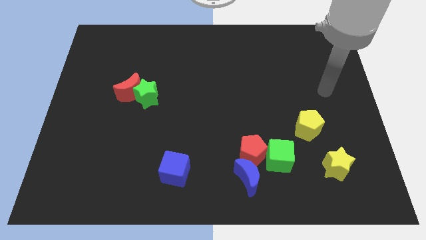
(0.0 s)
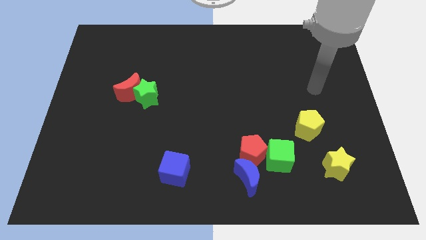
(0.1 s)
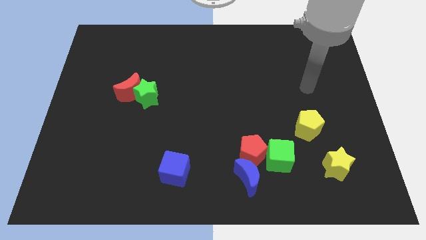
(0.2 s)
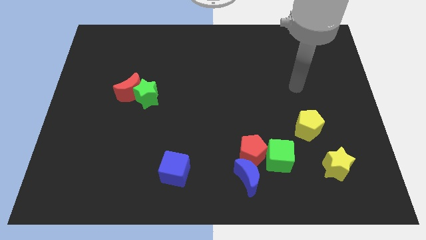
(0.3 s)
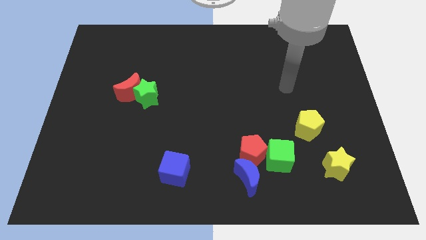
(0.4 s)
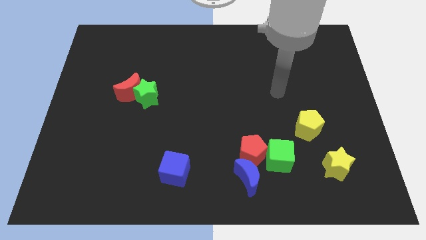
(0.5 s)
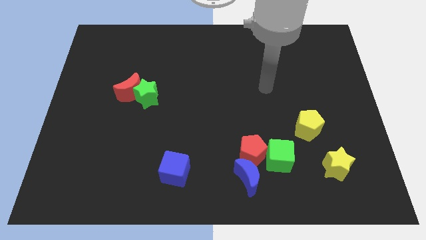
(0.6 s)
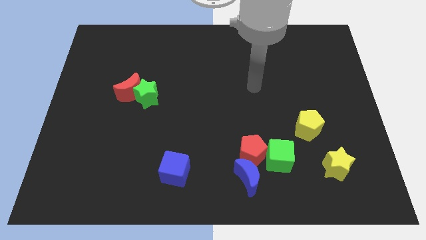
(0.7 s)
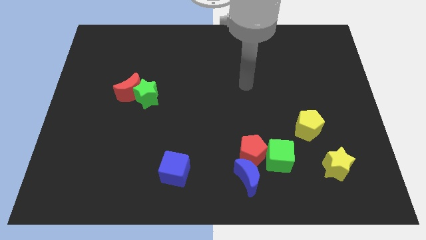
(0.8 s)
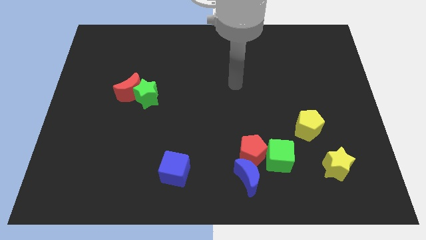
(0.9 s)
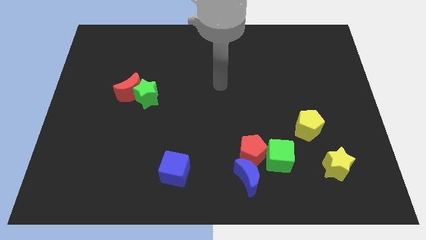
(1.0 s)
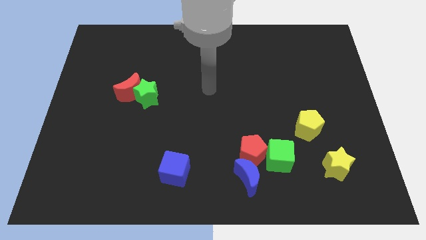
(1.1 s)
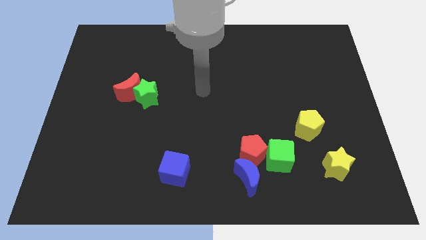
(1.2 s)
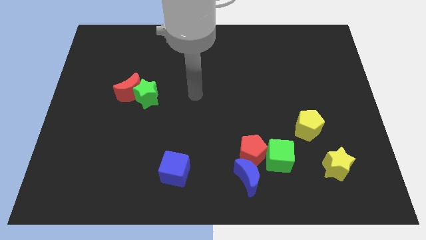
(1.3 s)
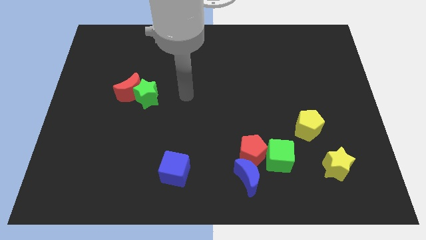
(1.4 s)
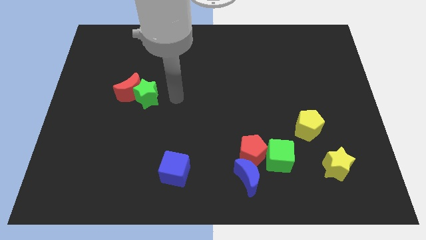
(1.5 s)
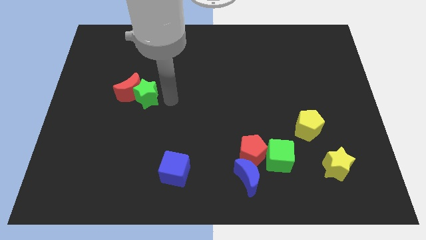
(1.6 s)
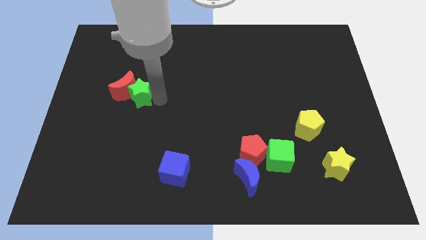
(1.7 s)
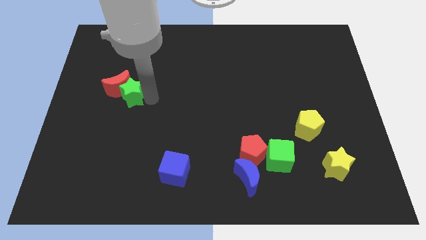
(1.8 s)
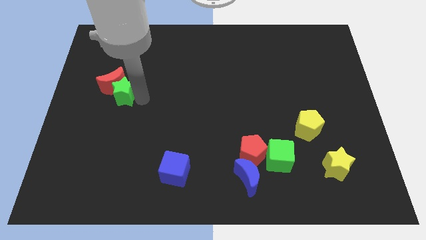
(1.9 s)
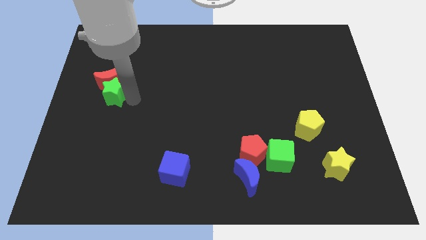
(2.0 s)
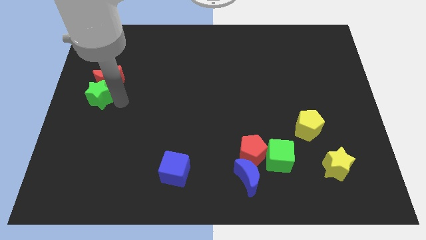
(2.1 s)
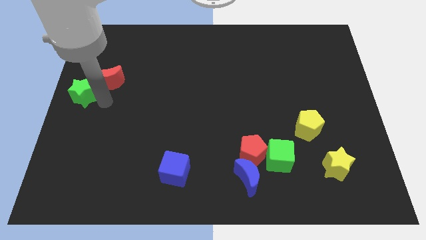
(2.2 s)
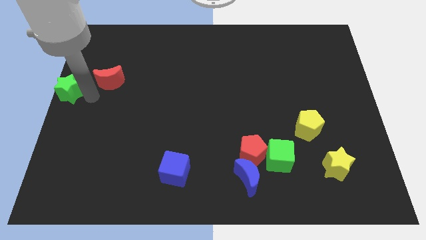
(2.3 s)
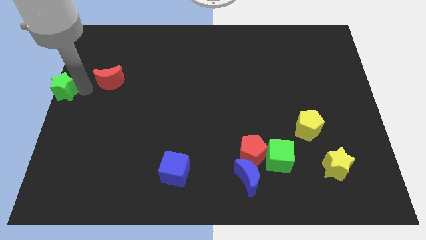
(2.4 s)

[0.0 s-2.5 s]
move the red moon away from the green star

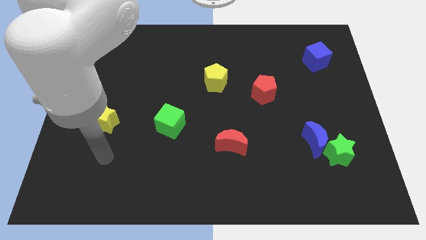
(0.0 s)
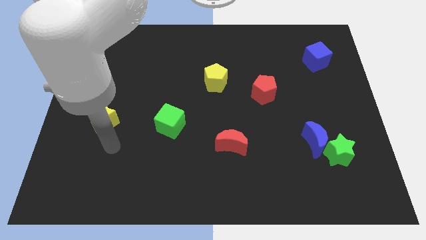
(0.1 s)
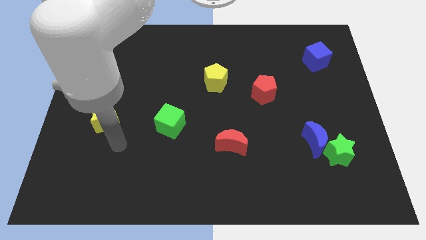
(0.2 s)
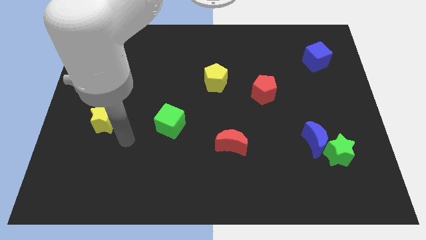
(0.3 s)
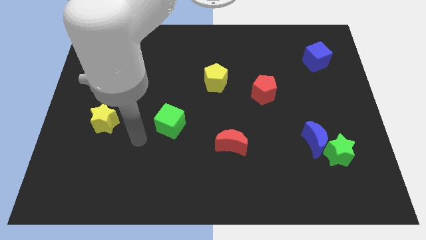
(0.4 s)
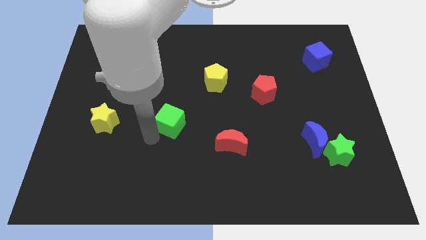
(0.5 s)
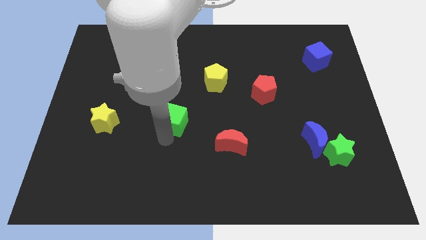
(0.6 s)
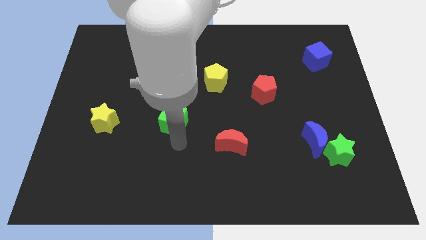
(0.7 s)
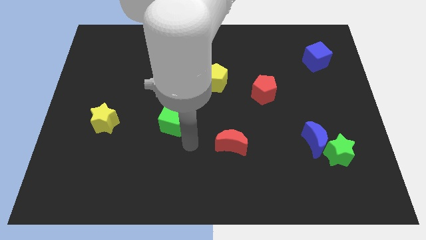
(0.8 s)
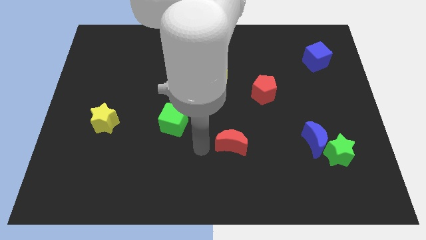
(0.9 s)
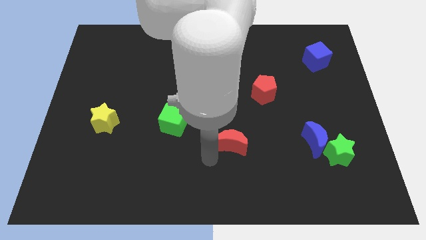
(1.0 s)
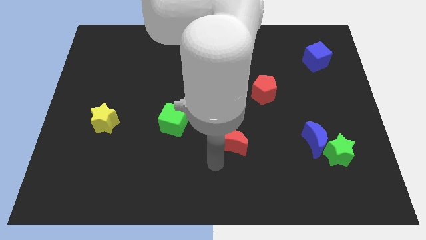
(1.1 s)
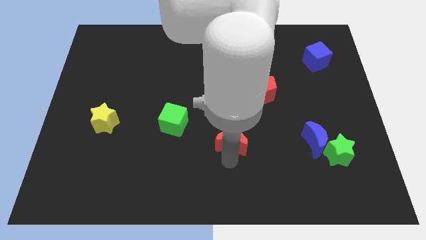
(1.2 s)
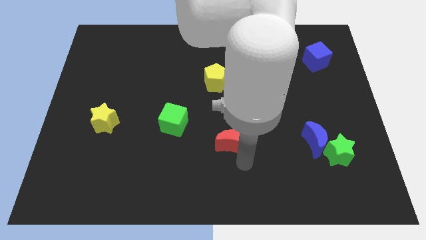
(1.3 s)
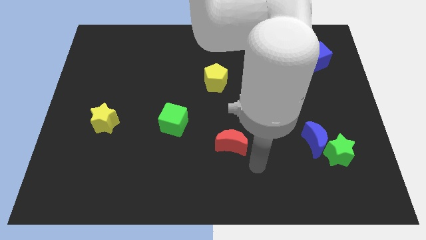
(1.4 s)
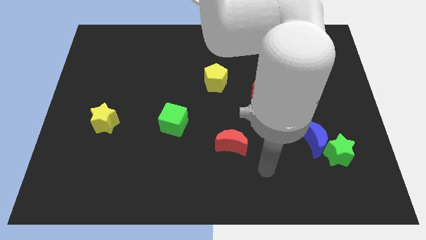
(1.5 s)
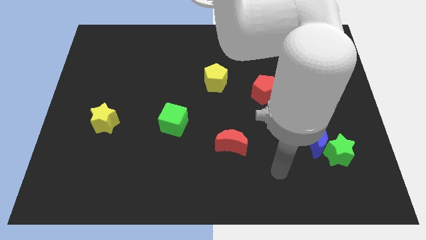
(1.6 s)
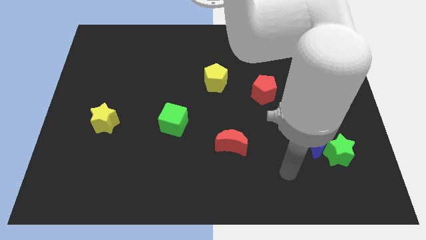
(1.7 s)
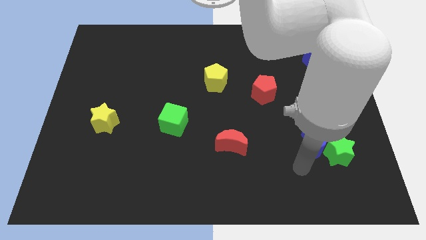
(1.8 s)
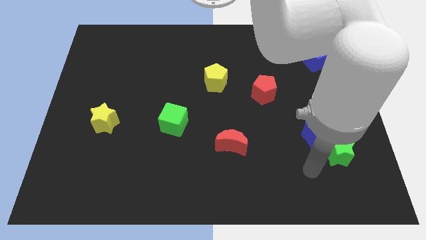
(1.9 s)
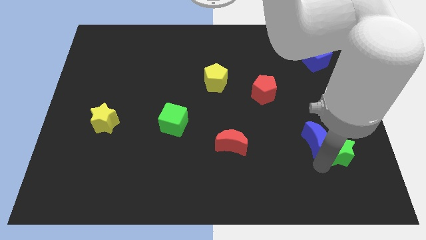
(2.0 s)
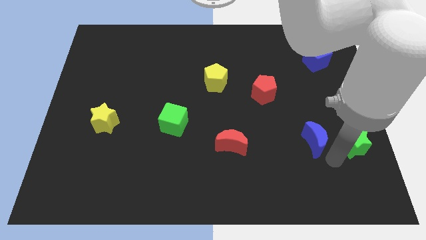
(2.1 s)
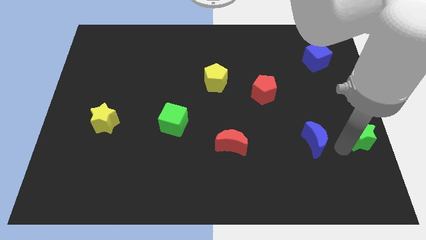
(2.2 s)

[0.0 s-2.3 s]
move the blue moon away from the green star

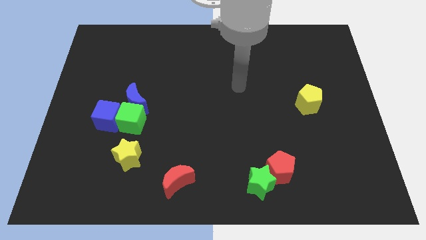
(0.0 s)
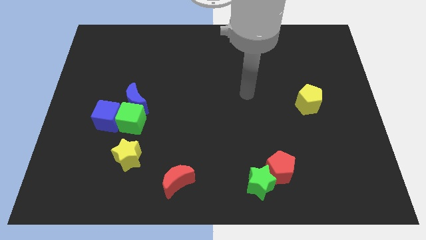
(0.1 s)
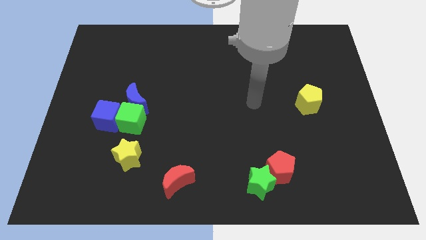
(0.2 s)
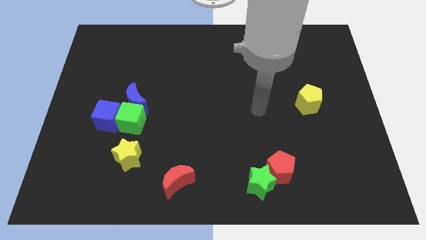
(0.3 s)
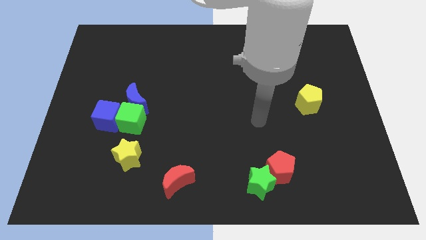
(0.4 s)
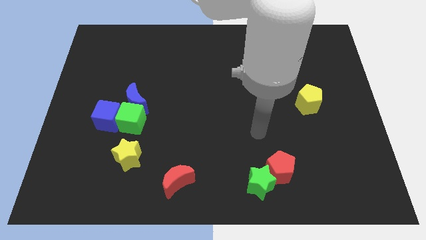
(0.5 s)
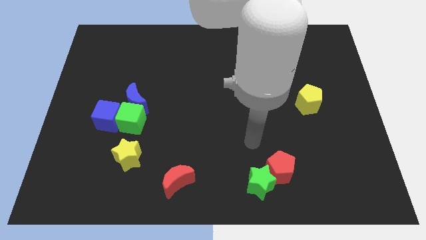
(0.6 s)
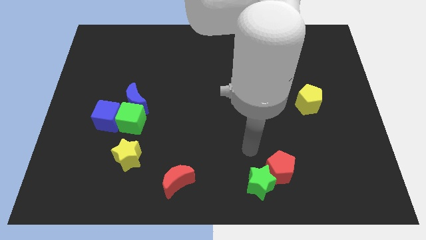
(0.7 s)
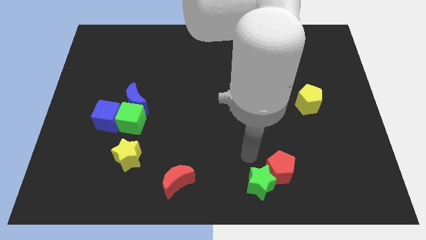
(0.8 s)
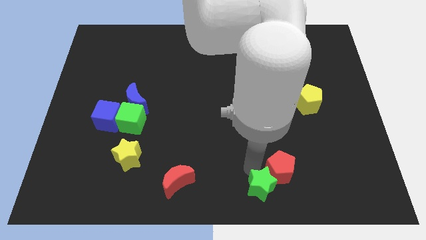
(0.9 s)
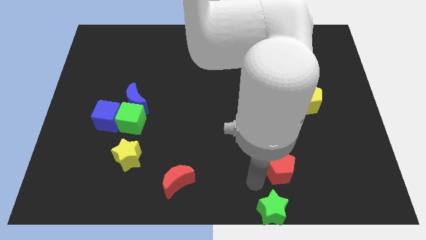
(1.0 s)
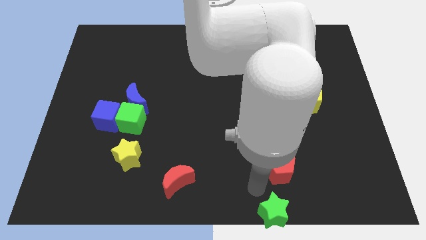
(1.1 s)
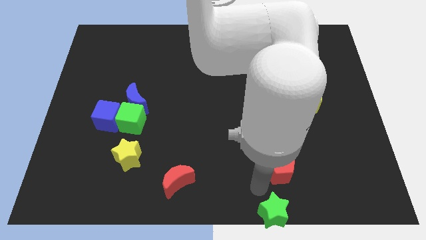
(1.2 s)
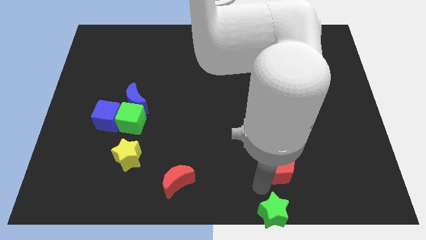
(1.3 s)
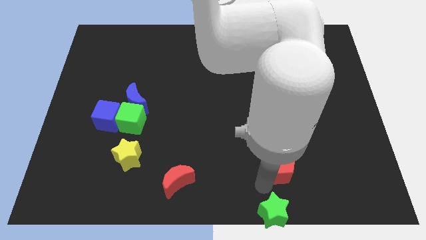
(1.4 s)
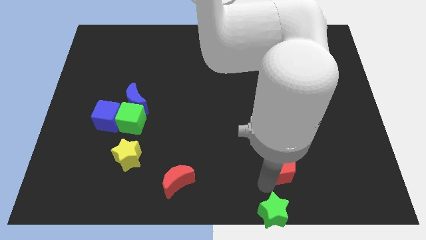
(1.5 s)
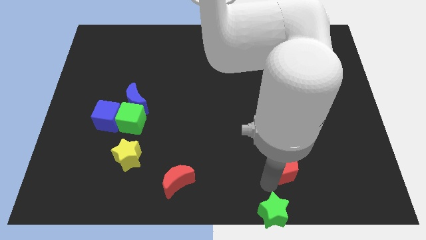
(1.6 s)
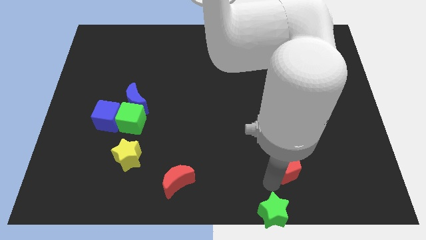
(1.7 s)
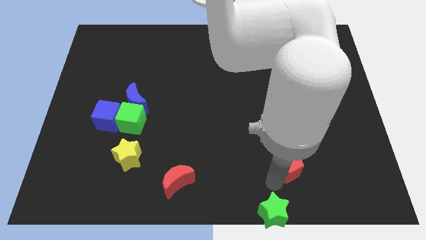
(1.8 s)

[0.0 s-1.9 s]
separate the red pentagon from the green star

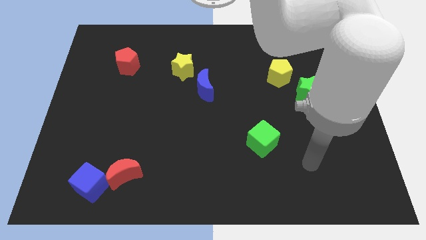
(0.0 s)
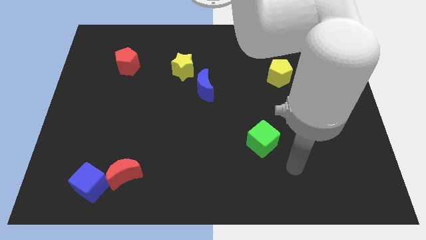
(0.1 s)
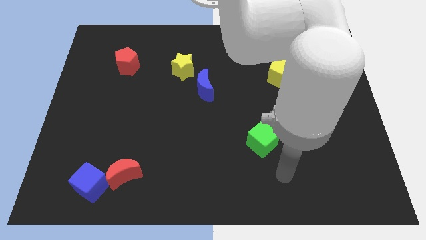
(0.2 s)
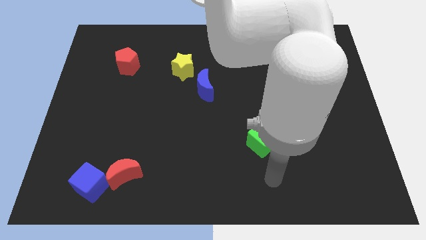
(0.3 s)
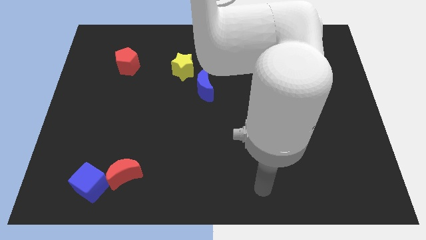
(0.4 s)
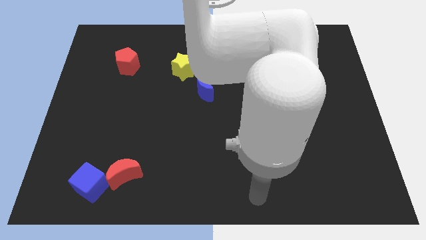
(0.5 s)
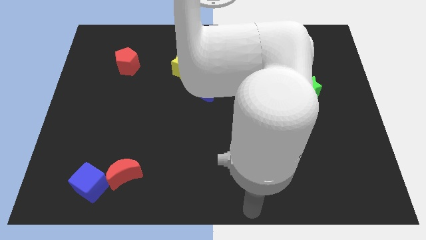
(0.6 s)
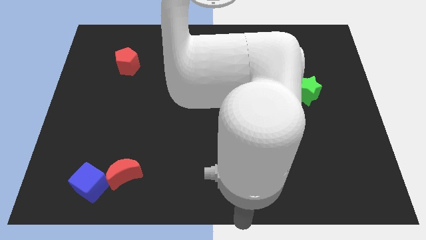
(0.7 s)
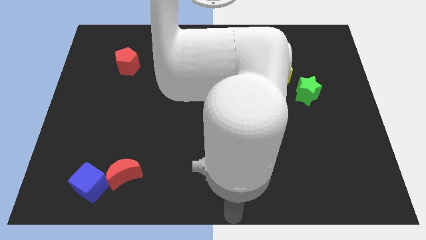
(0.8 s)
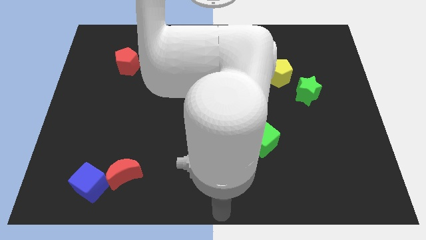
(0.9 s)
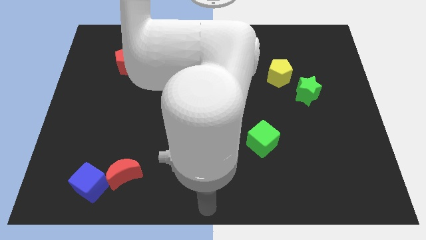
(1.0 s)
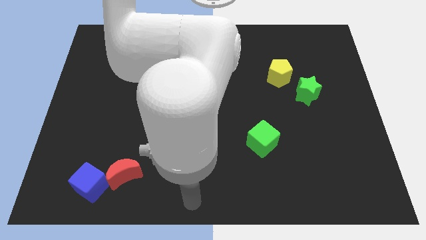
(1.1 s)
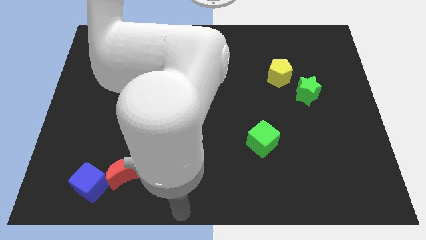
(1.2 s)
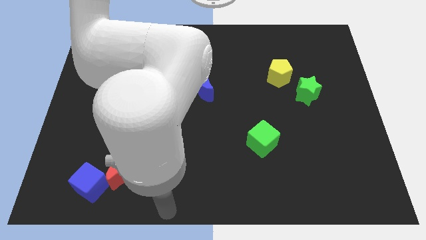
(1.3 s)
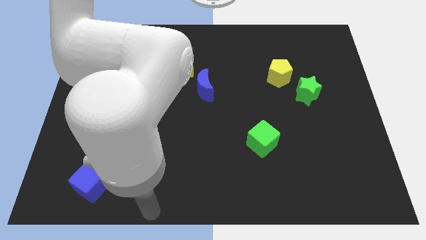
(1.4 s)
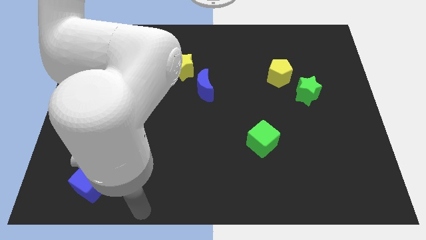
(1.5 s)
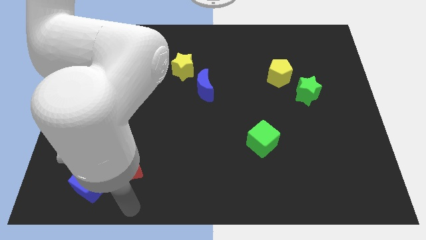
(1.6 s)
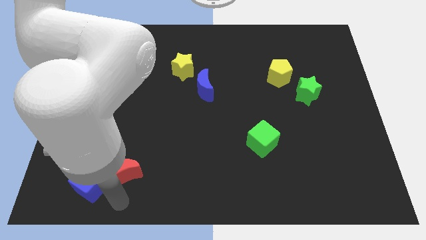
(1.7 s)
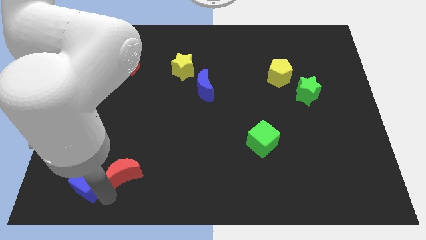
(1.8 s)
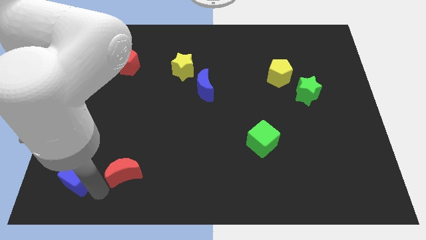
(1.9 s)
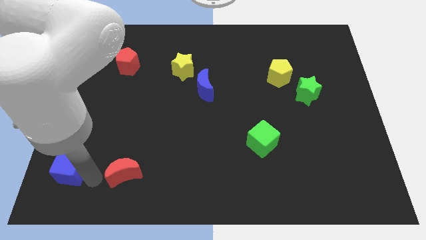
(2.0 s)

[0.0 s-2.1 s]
separate the red moon from the blue cube

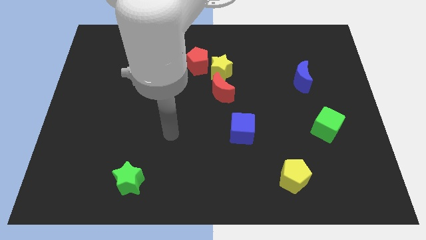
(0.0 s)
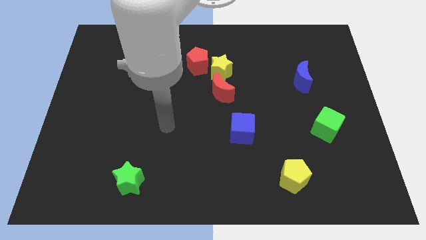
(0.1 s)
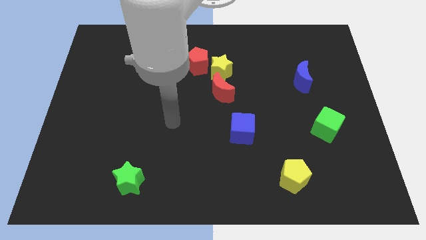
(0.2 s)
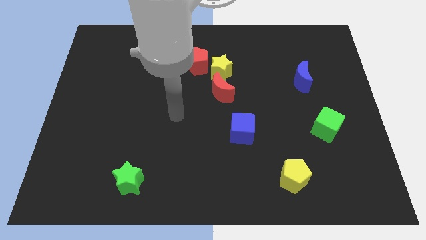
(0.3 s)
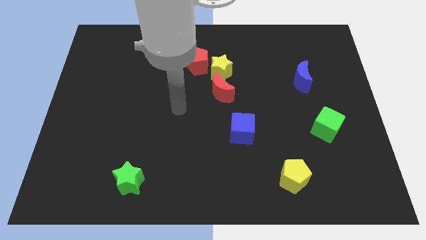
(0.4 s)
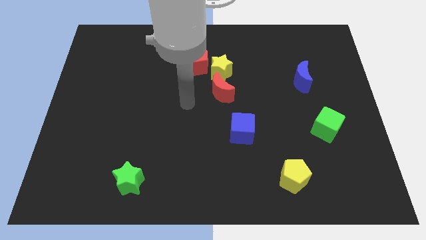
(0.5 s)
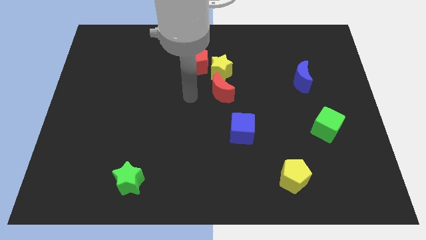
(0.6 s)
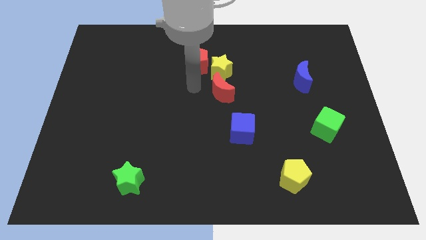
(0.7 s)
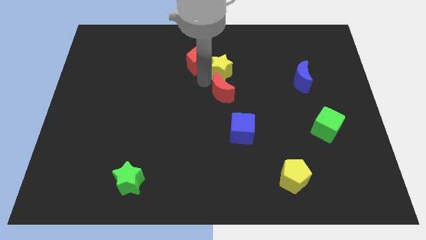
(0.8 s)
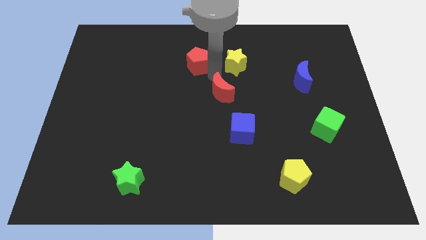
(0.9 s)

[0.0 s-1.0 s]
separate the red pentagon from the yellow star
